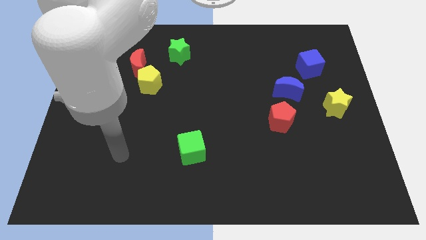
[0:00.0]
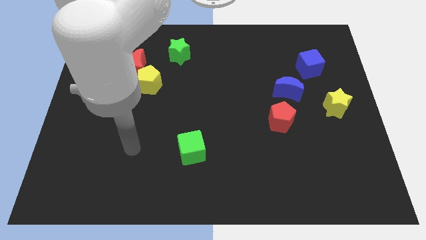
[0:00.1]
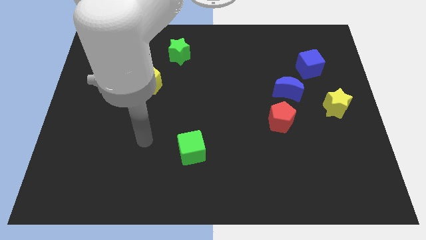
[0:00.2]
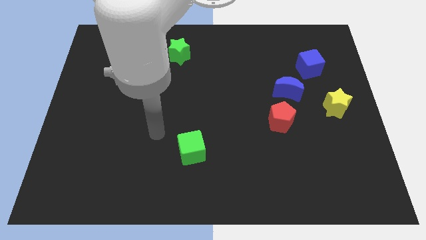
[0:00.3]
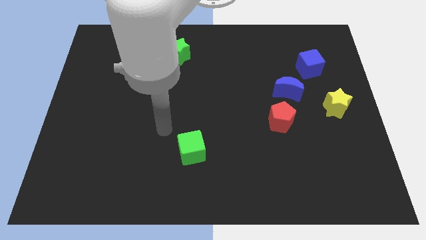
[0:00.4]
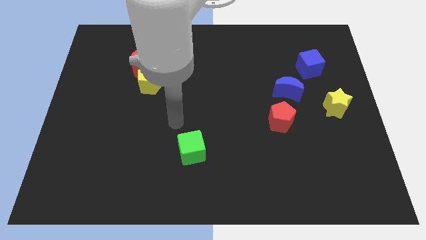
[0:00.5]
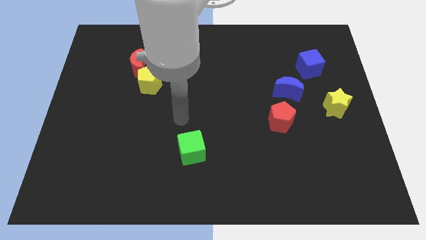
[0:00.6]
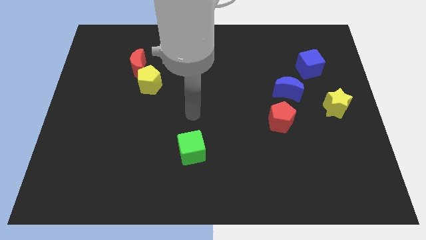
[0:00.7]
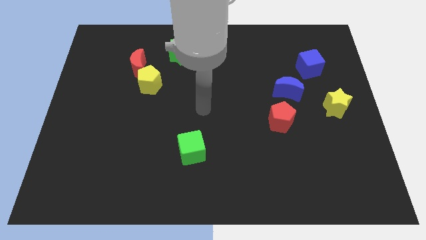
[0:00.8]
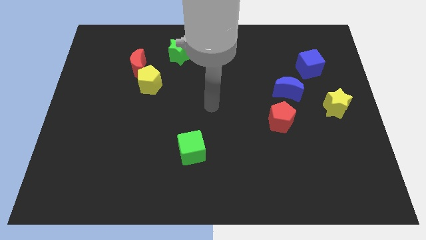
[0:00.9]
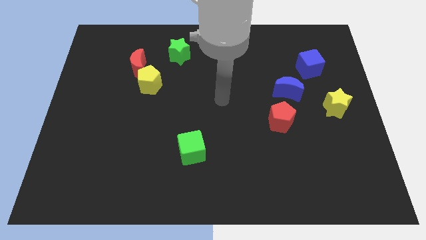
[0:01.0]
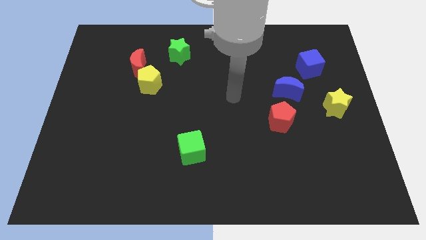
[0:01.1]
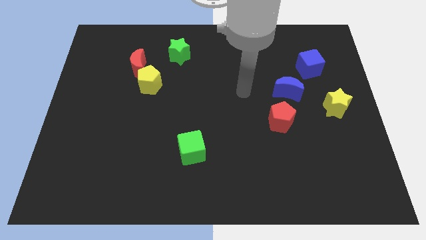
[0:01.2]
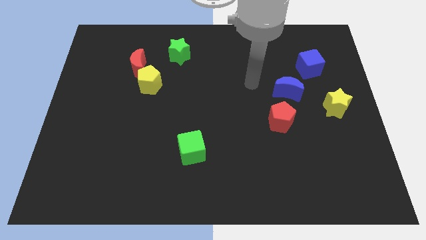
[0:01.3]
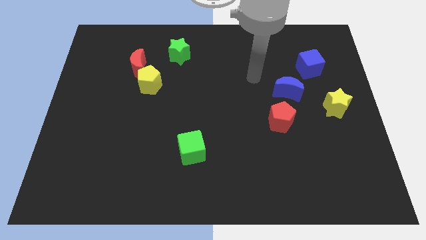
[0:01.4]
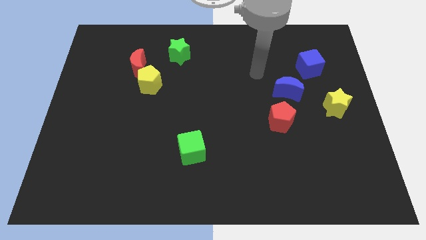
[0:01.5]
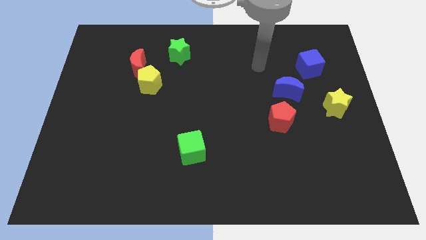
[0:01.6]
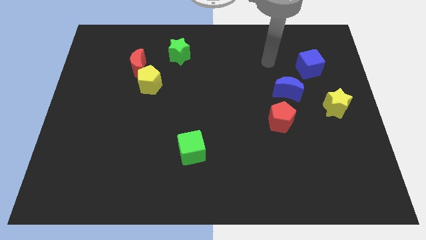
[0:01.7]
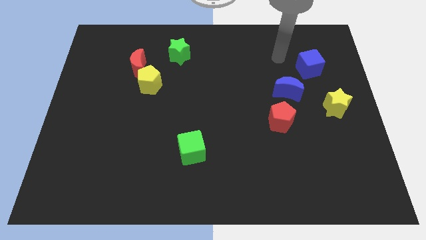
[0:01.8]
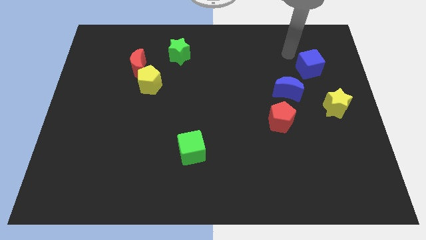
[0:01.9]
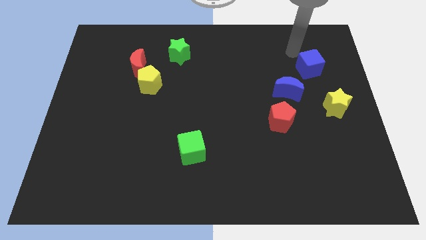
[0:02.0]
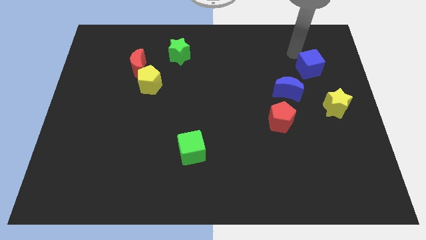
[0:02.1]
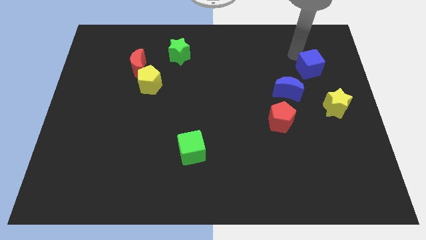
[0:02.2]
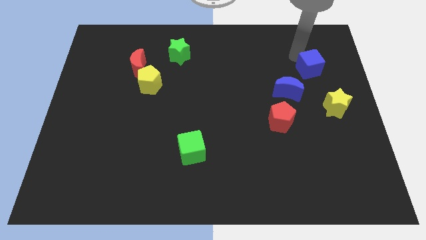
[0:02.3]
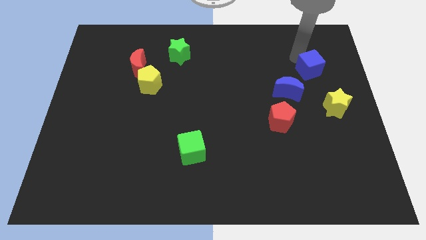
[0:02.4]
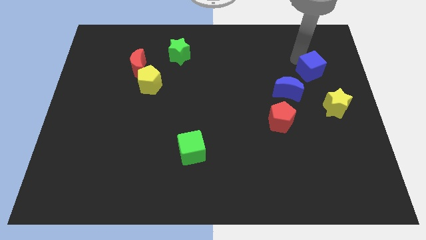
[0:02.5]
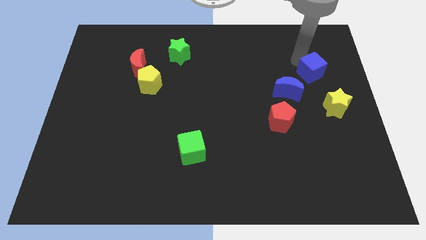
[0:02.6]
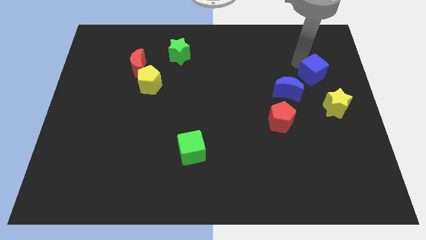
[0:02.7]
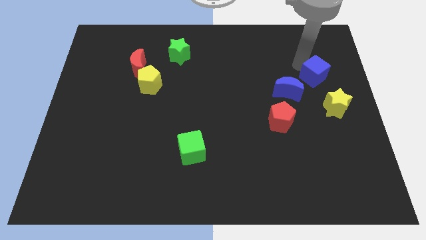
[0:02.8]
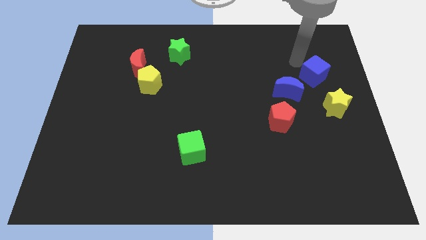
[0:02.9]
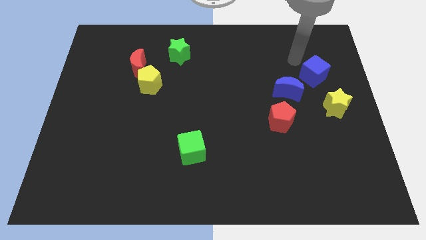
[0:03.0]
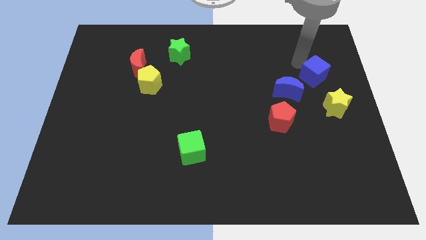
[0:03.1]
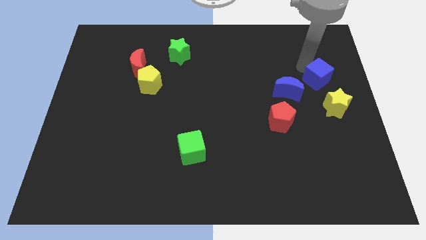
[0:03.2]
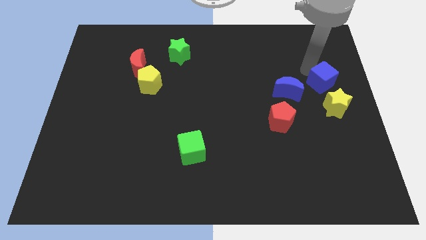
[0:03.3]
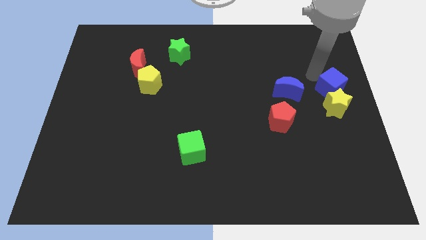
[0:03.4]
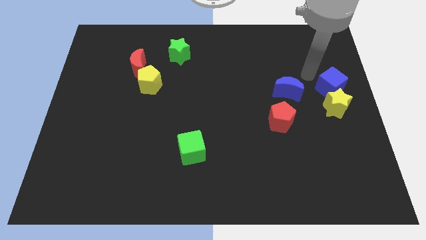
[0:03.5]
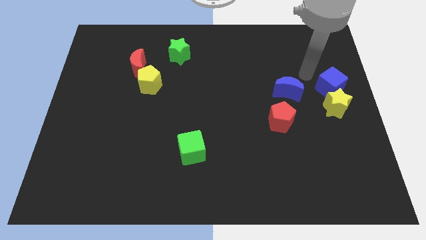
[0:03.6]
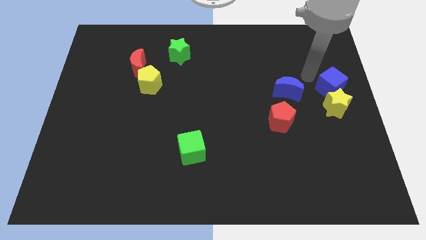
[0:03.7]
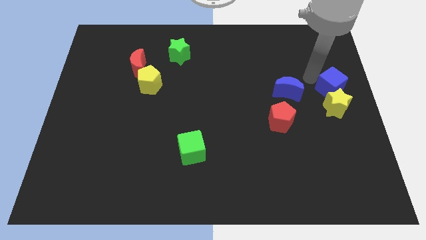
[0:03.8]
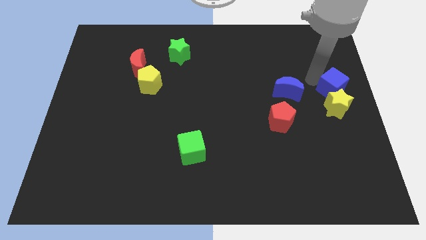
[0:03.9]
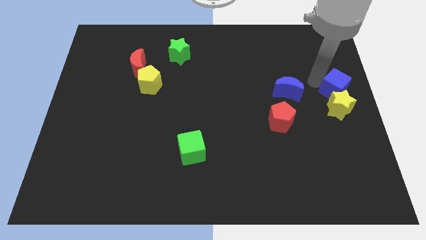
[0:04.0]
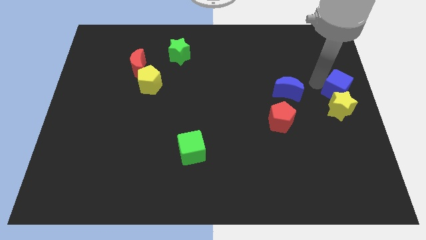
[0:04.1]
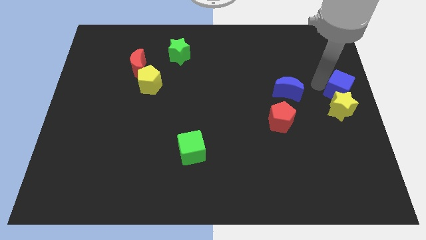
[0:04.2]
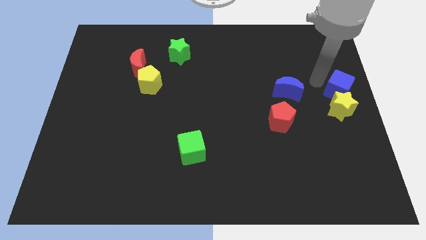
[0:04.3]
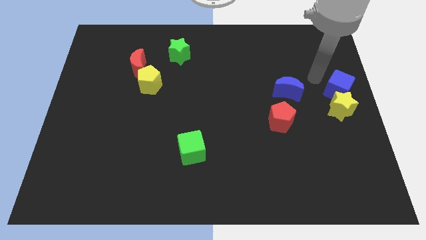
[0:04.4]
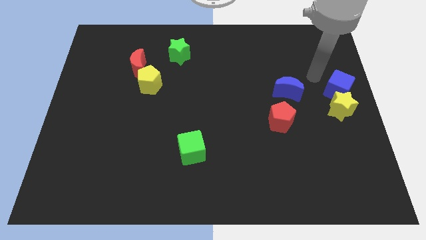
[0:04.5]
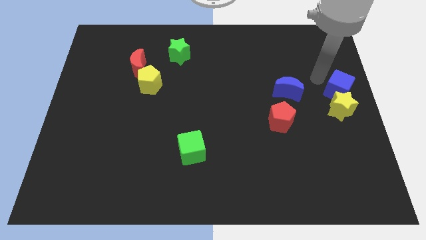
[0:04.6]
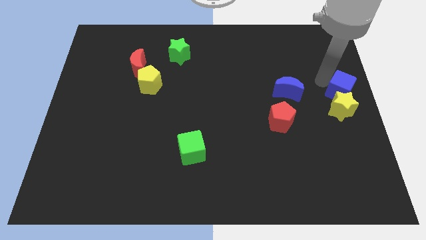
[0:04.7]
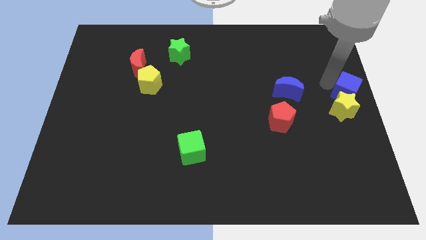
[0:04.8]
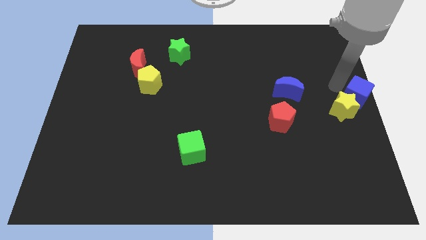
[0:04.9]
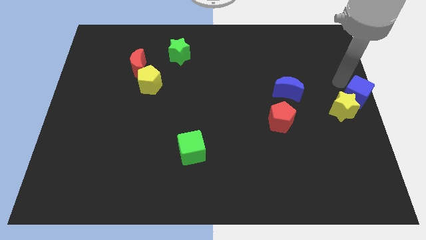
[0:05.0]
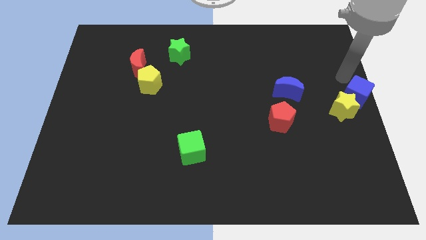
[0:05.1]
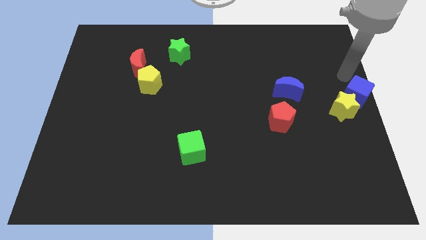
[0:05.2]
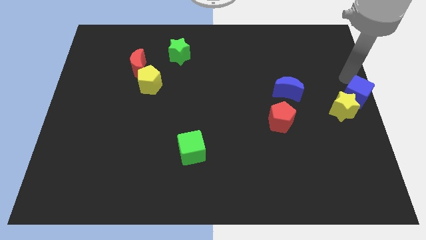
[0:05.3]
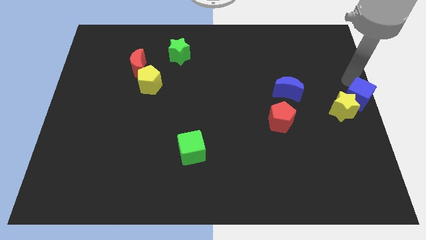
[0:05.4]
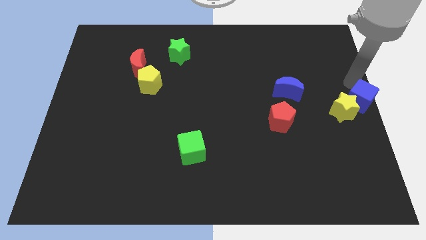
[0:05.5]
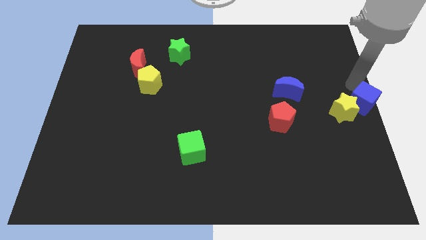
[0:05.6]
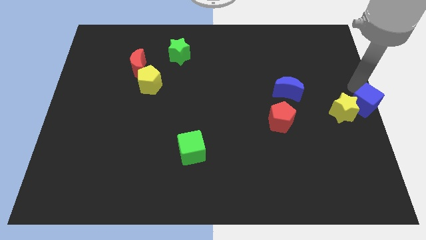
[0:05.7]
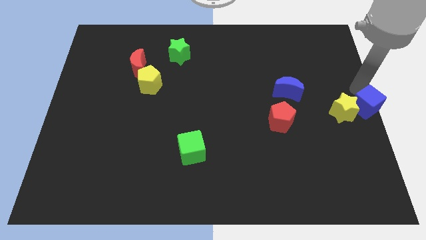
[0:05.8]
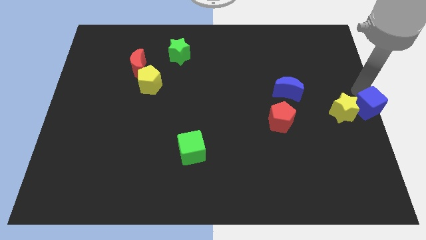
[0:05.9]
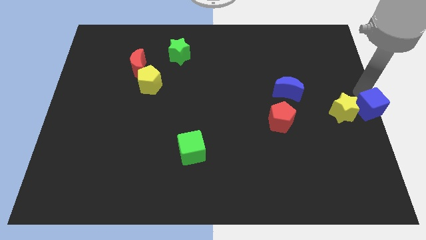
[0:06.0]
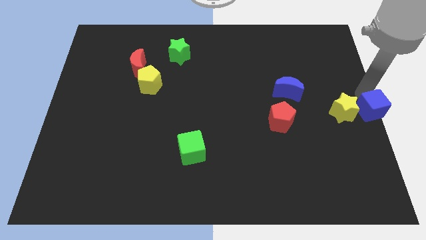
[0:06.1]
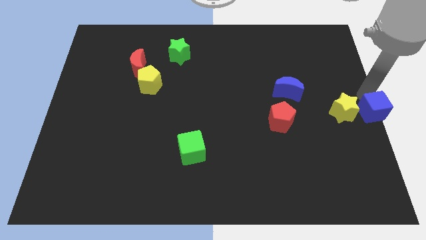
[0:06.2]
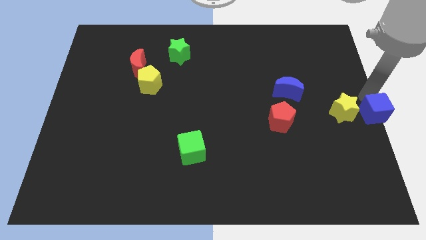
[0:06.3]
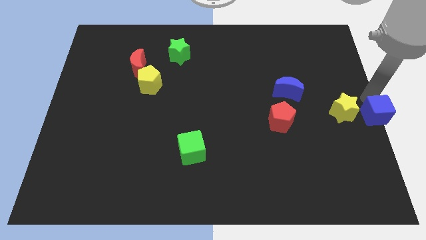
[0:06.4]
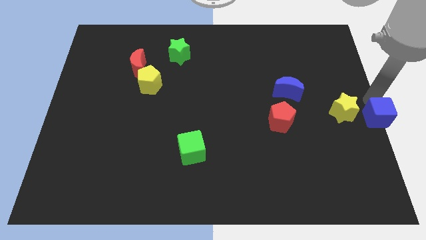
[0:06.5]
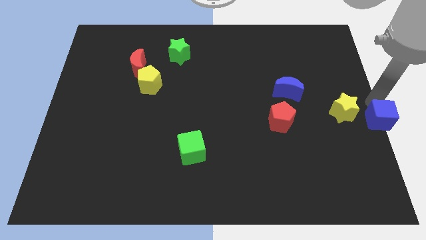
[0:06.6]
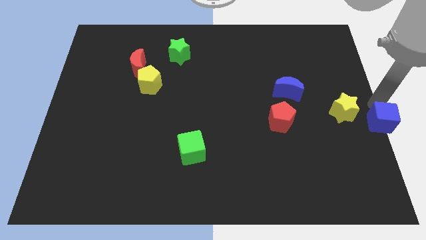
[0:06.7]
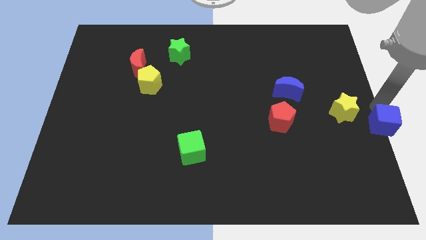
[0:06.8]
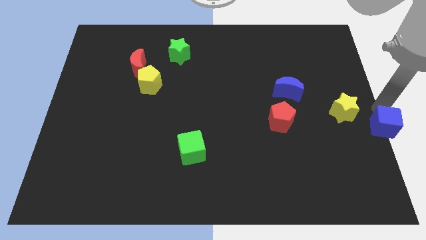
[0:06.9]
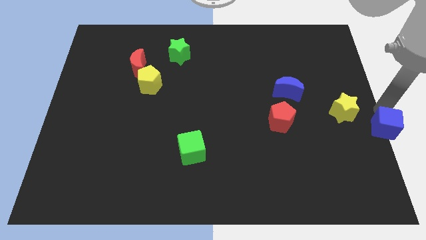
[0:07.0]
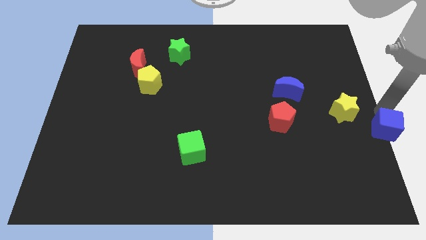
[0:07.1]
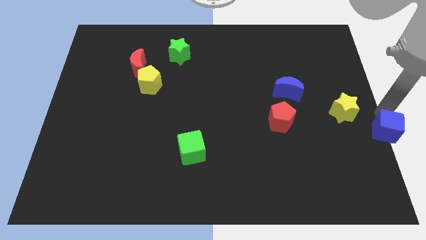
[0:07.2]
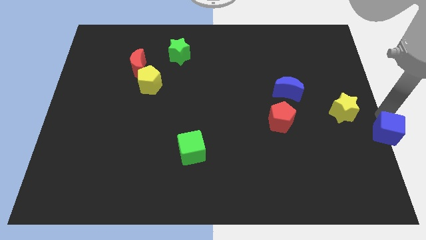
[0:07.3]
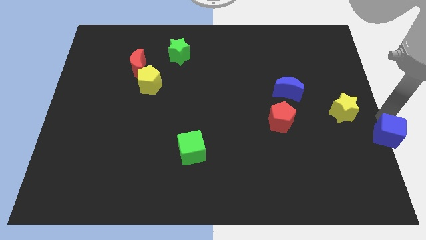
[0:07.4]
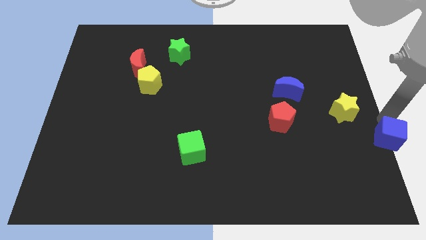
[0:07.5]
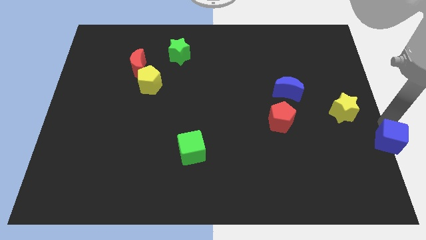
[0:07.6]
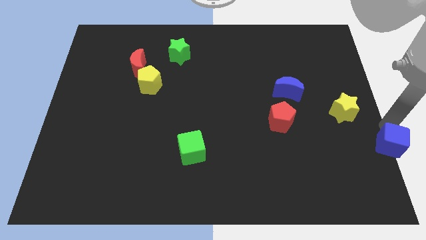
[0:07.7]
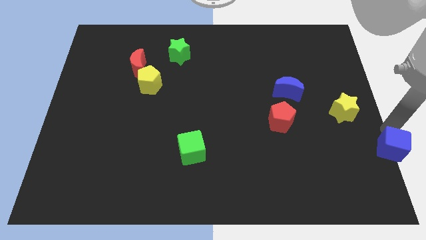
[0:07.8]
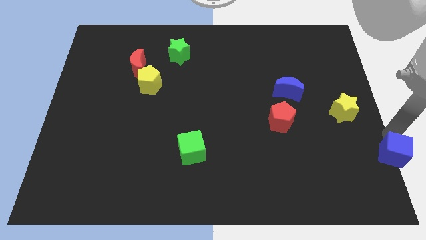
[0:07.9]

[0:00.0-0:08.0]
put the blue cube to the bottom right
